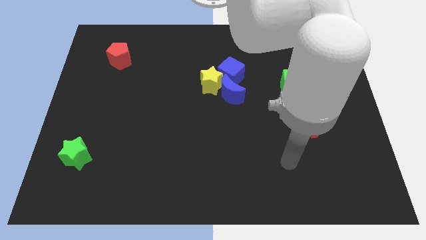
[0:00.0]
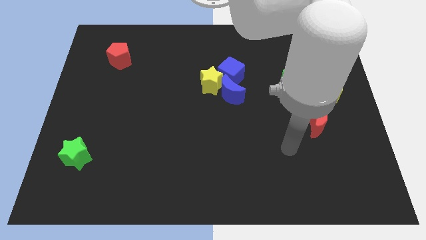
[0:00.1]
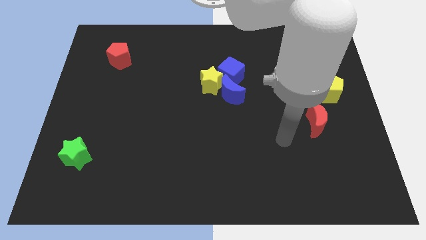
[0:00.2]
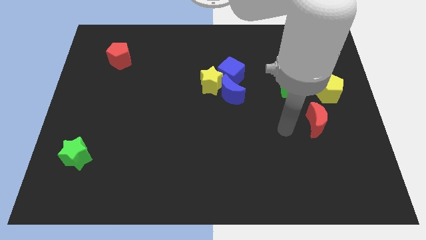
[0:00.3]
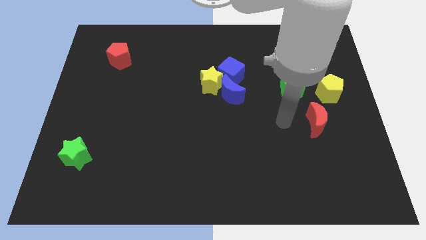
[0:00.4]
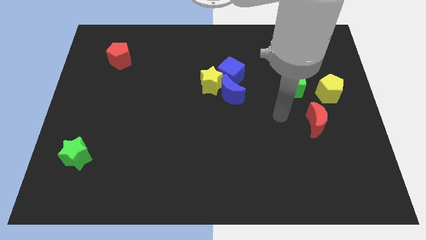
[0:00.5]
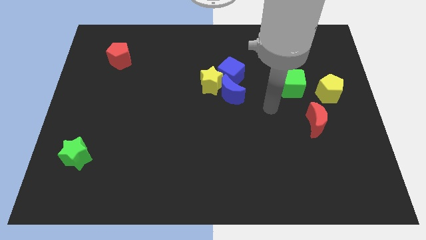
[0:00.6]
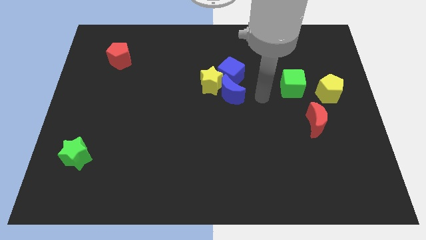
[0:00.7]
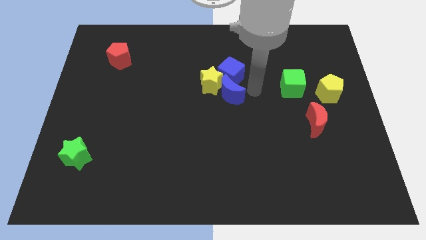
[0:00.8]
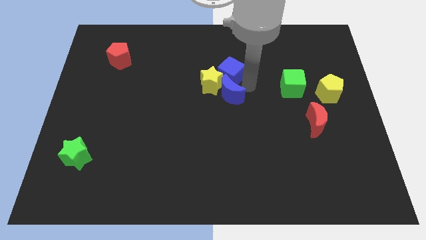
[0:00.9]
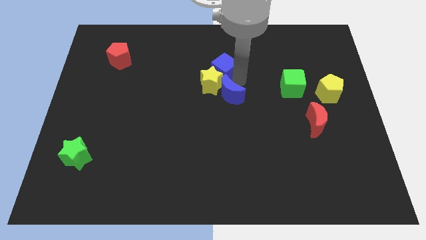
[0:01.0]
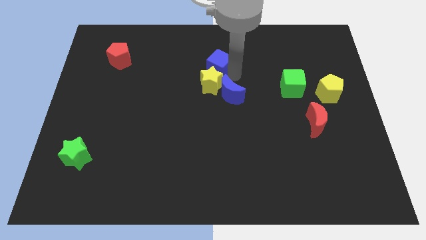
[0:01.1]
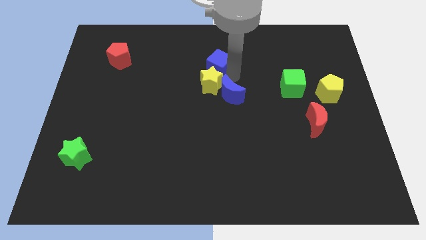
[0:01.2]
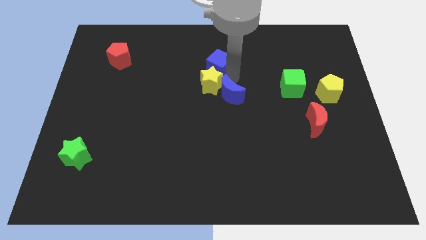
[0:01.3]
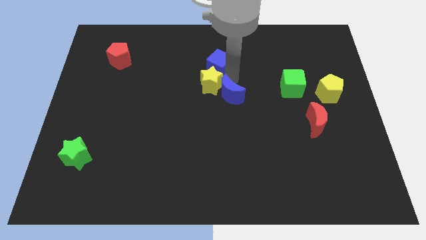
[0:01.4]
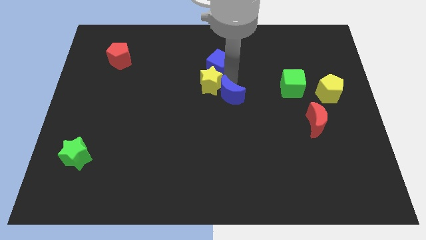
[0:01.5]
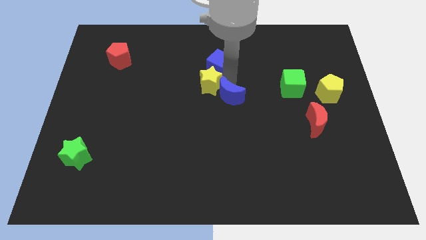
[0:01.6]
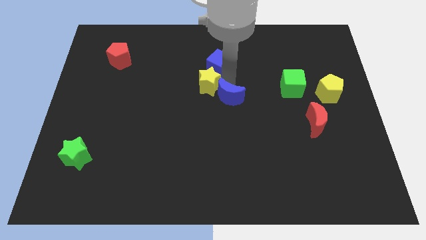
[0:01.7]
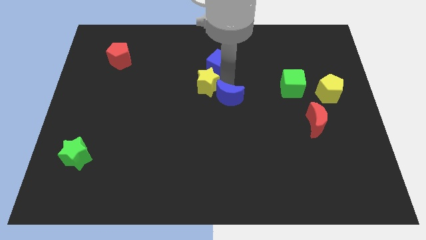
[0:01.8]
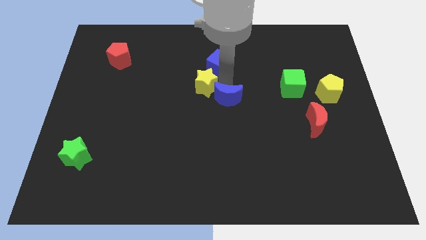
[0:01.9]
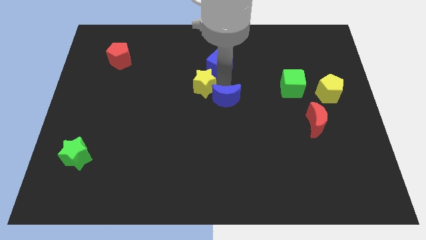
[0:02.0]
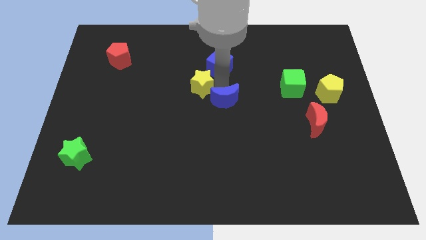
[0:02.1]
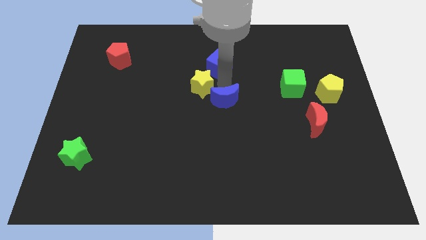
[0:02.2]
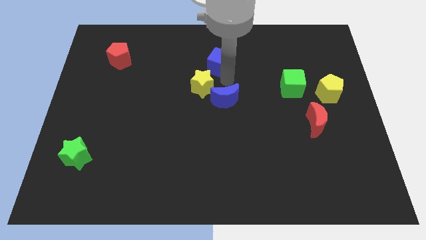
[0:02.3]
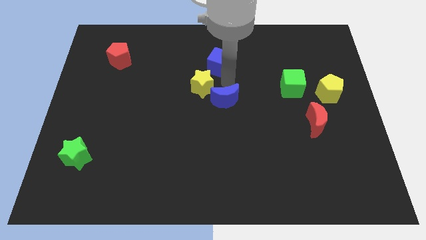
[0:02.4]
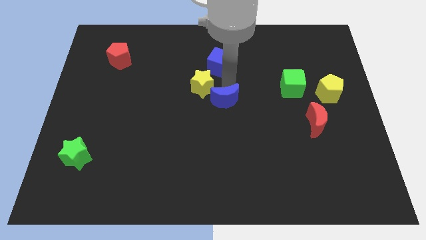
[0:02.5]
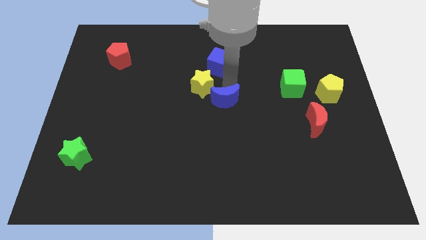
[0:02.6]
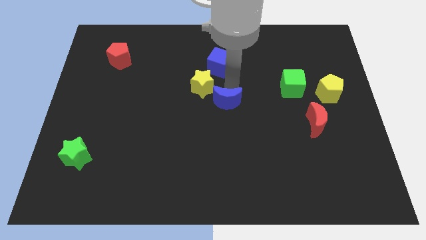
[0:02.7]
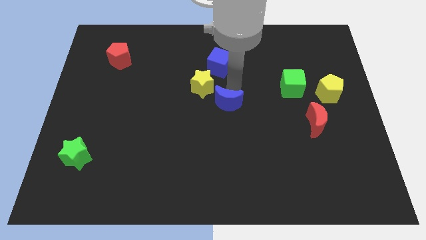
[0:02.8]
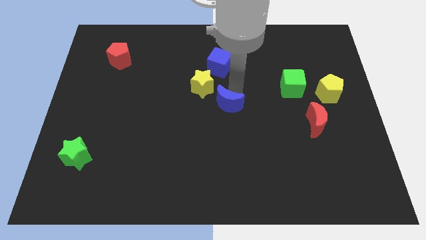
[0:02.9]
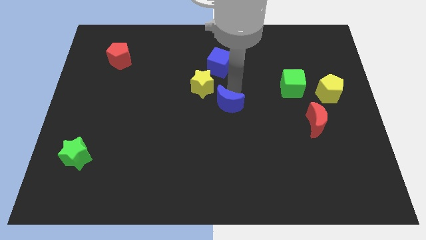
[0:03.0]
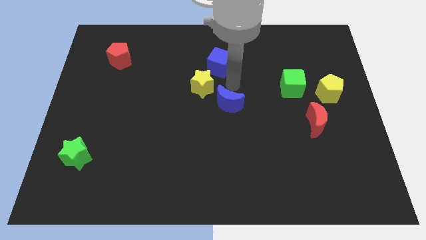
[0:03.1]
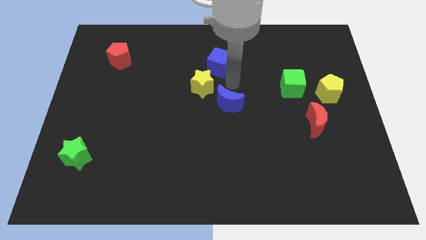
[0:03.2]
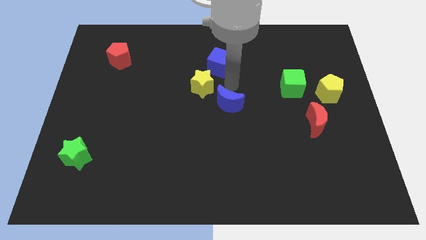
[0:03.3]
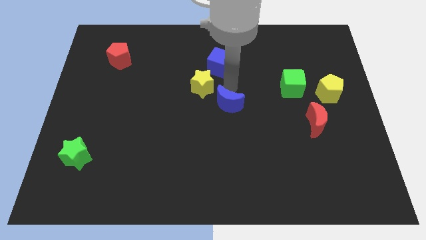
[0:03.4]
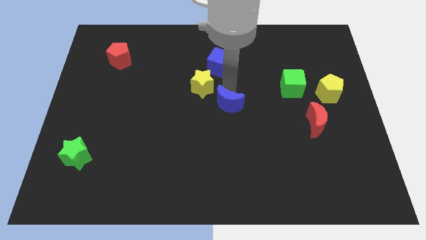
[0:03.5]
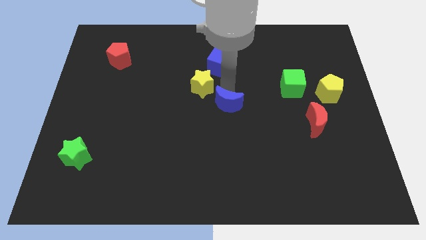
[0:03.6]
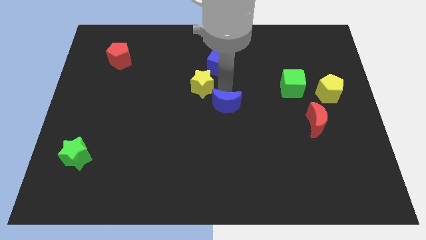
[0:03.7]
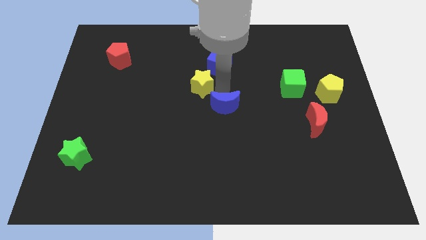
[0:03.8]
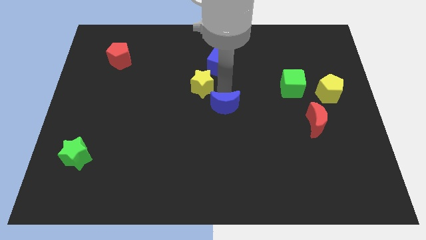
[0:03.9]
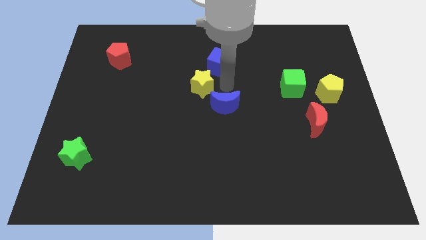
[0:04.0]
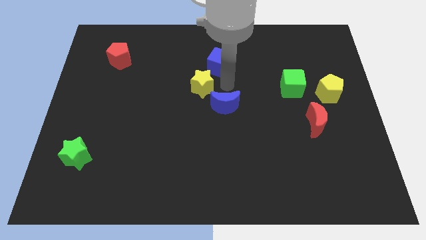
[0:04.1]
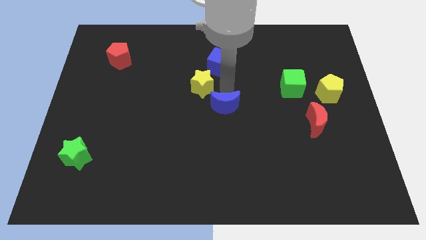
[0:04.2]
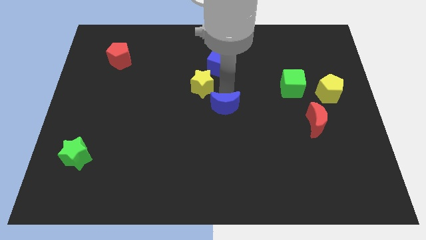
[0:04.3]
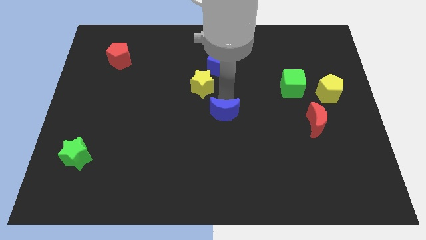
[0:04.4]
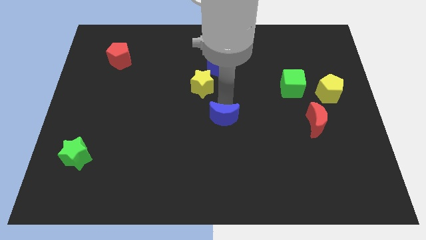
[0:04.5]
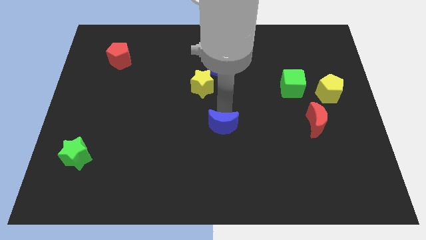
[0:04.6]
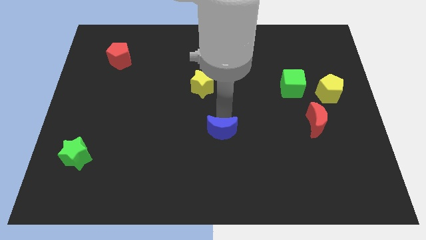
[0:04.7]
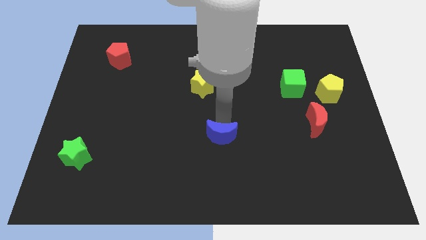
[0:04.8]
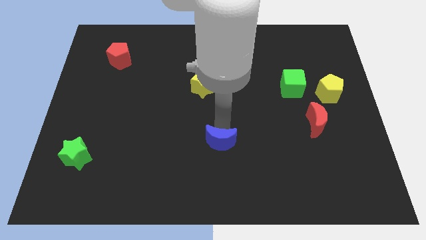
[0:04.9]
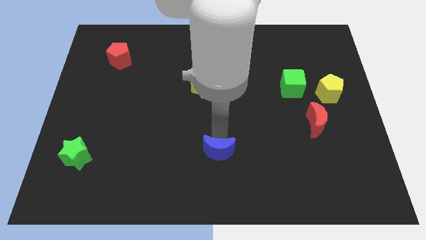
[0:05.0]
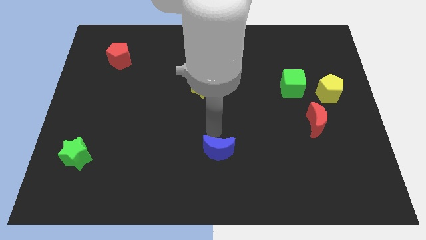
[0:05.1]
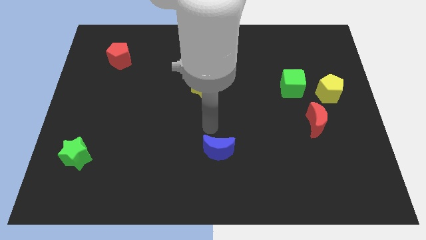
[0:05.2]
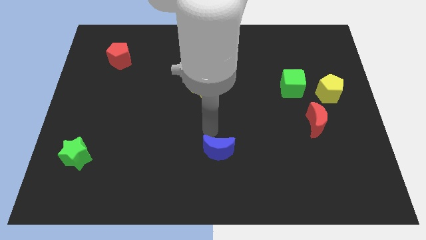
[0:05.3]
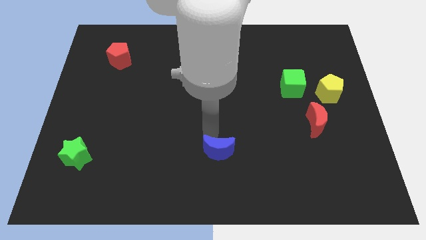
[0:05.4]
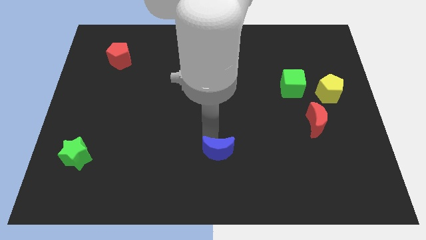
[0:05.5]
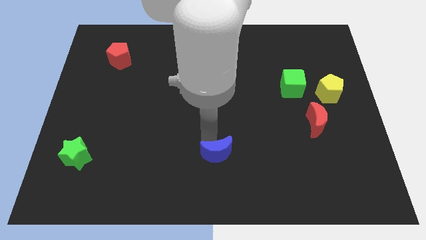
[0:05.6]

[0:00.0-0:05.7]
move the blue moon to the bottom side
